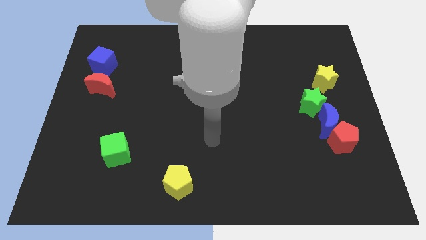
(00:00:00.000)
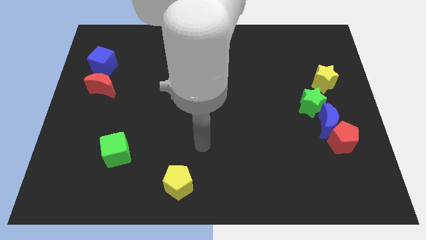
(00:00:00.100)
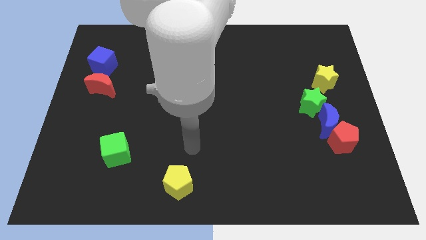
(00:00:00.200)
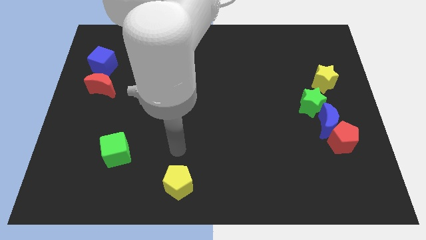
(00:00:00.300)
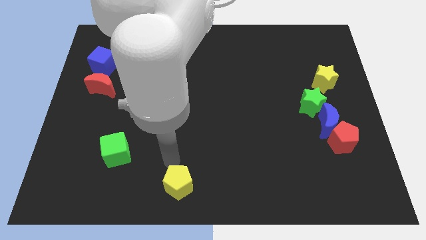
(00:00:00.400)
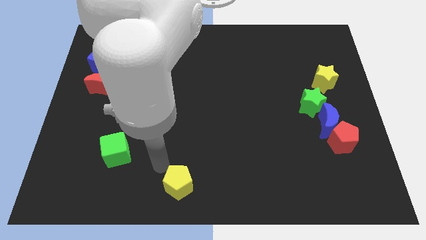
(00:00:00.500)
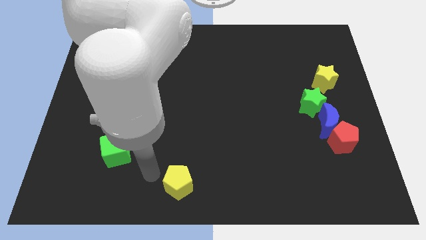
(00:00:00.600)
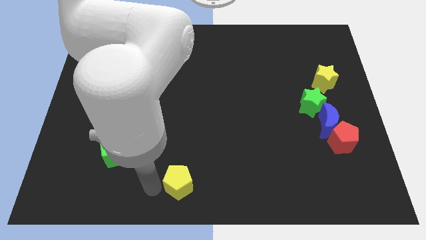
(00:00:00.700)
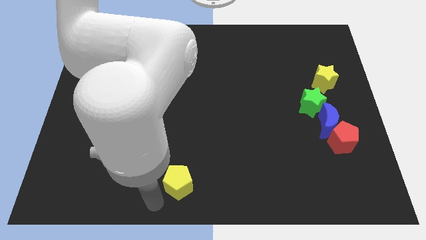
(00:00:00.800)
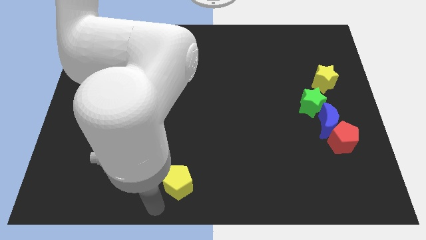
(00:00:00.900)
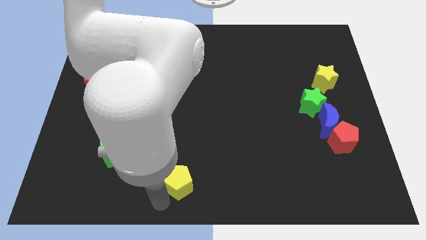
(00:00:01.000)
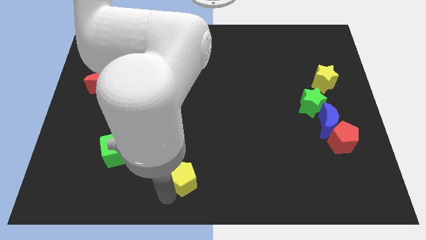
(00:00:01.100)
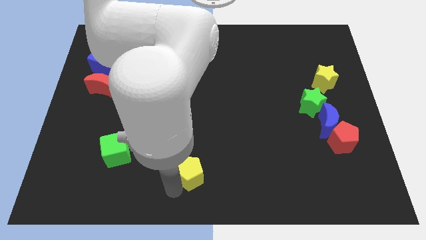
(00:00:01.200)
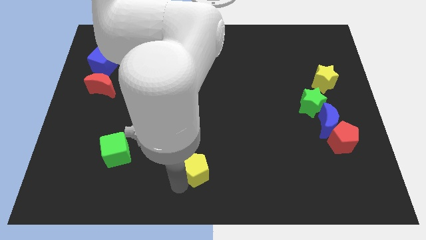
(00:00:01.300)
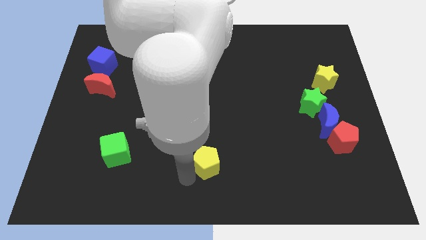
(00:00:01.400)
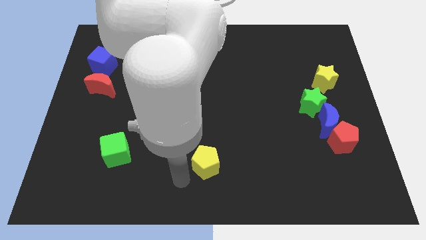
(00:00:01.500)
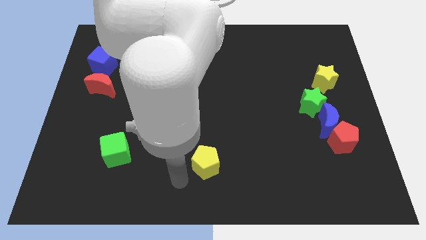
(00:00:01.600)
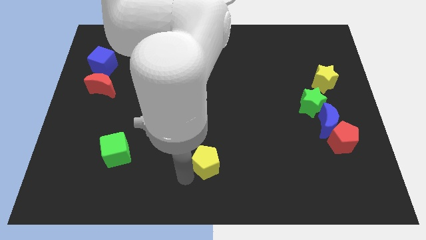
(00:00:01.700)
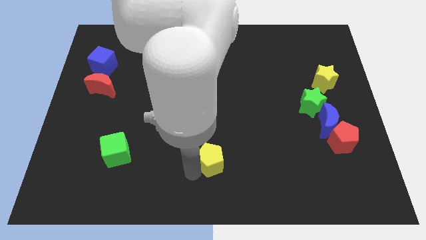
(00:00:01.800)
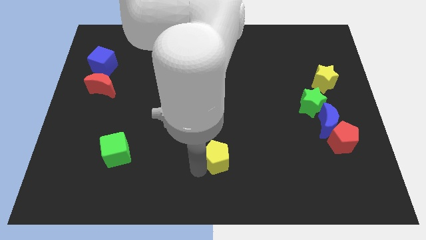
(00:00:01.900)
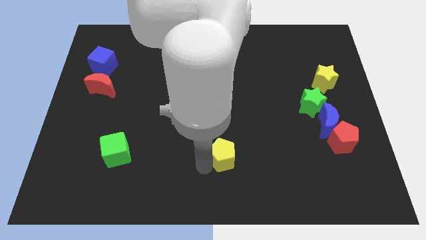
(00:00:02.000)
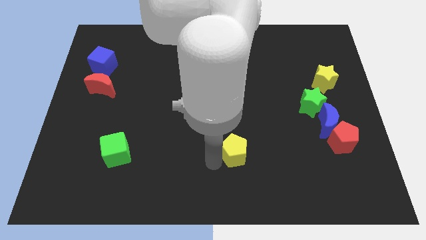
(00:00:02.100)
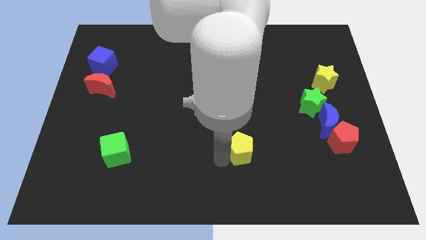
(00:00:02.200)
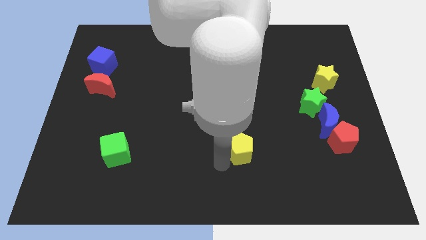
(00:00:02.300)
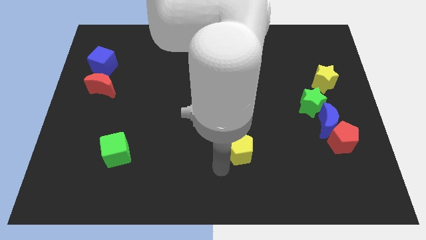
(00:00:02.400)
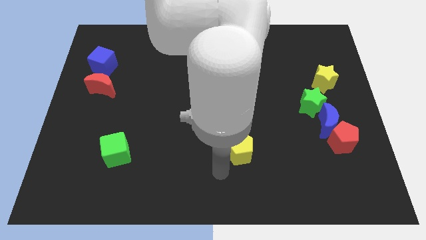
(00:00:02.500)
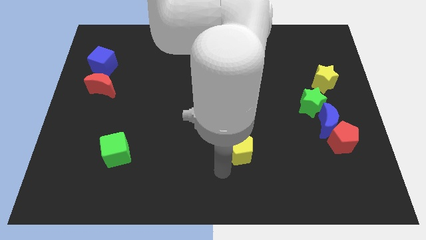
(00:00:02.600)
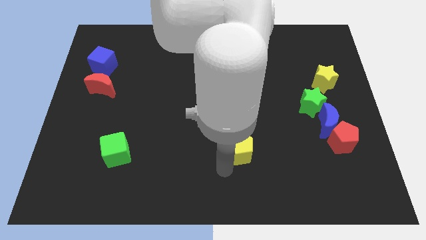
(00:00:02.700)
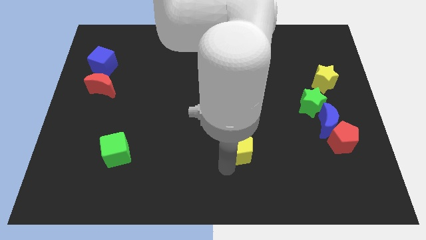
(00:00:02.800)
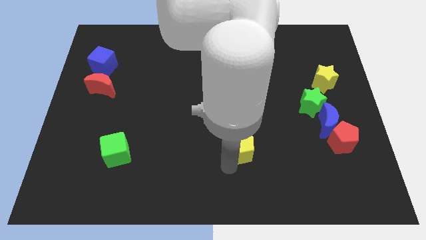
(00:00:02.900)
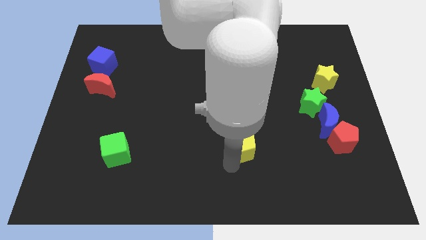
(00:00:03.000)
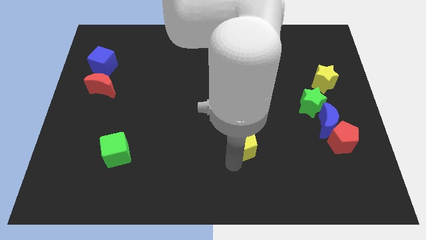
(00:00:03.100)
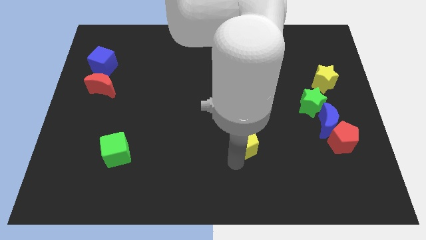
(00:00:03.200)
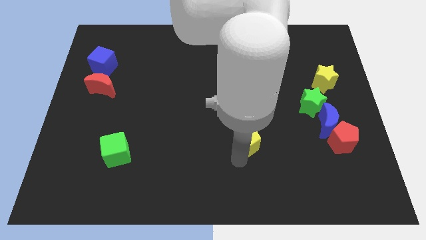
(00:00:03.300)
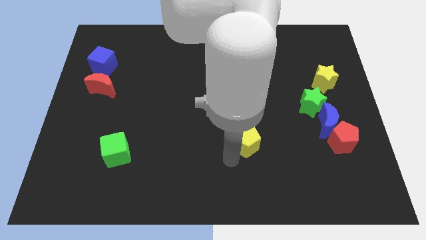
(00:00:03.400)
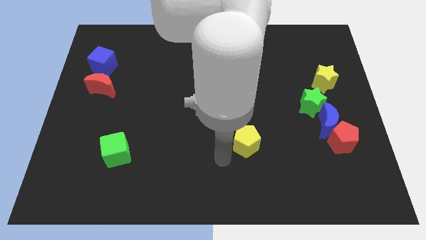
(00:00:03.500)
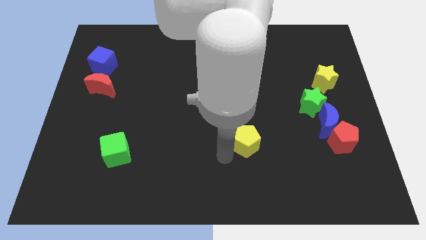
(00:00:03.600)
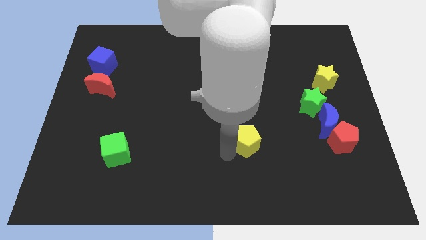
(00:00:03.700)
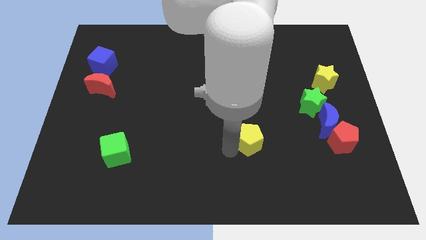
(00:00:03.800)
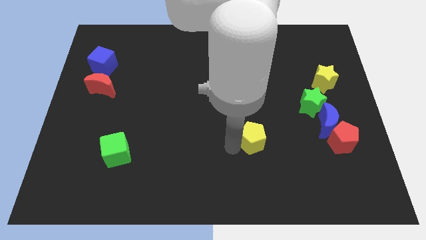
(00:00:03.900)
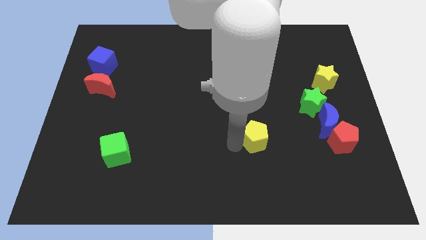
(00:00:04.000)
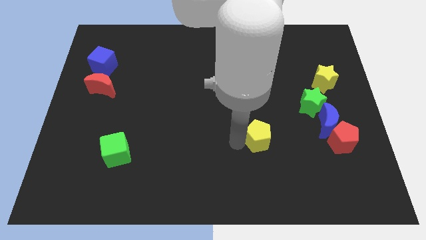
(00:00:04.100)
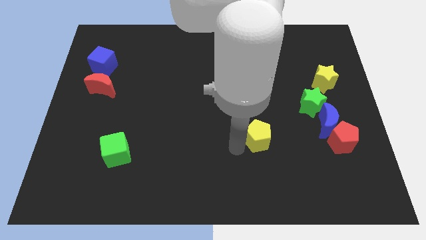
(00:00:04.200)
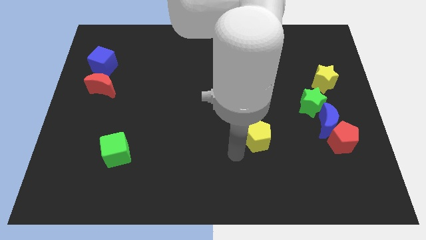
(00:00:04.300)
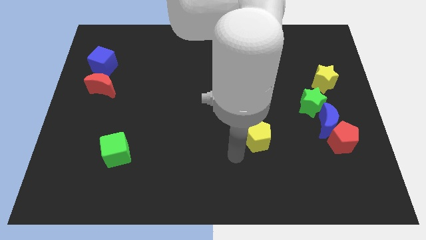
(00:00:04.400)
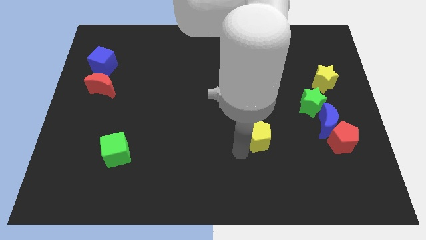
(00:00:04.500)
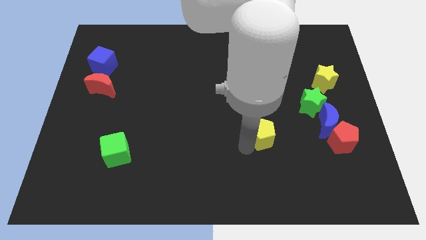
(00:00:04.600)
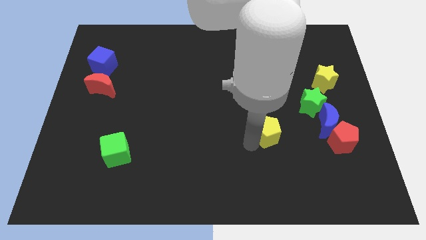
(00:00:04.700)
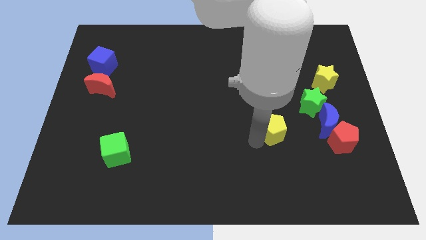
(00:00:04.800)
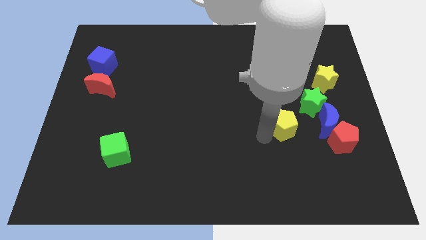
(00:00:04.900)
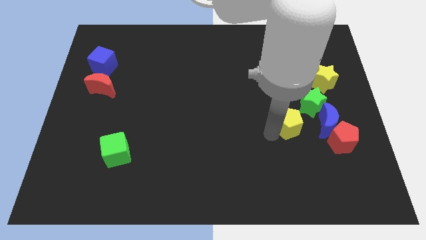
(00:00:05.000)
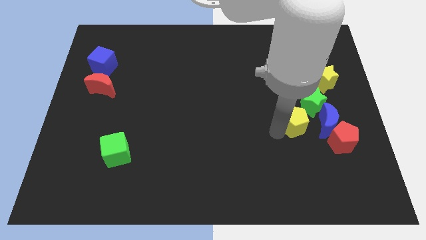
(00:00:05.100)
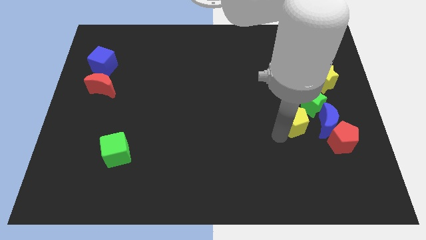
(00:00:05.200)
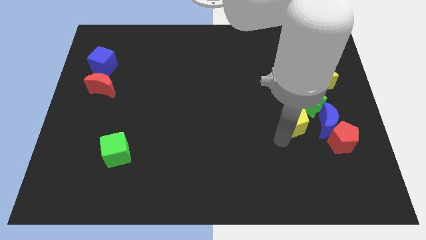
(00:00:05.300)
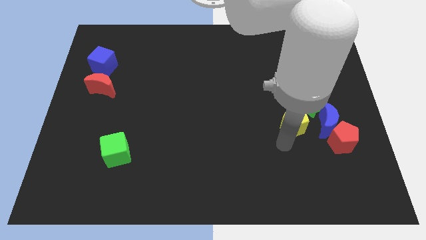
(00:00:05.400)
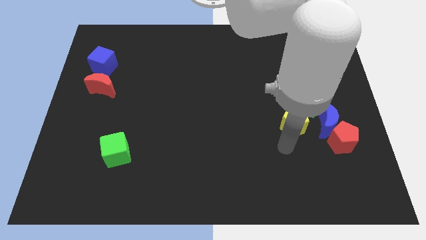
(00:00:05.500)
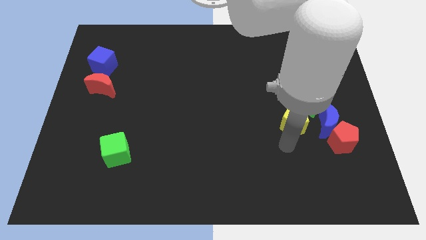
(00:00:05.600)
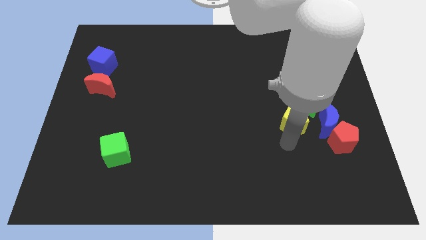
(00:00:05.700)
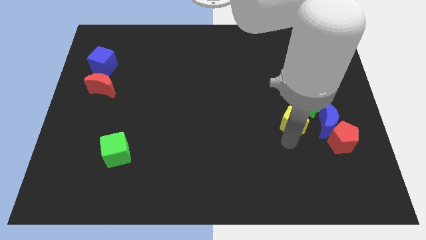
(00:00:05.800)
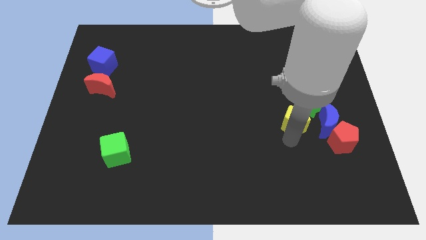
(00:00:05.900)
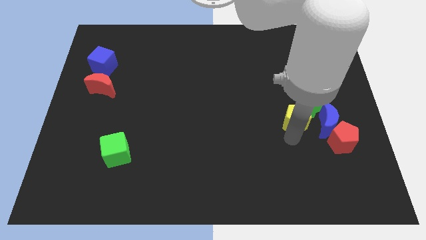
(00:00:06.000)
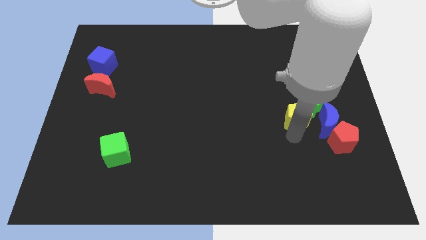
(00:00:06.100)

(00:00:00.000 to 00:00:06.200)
put the yellow pentagon close to the green star
